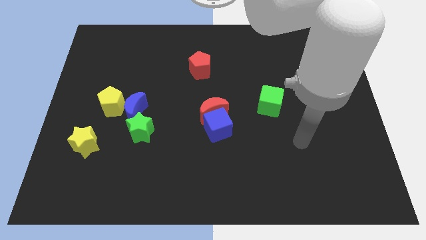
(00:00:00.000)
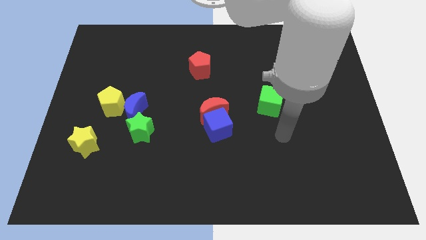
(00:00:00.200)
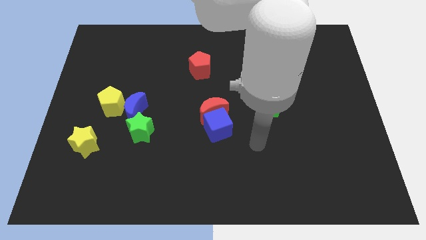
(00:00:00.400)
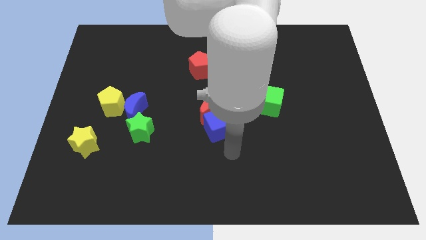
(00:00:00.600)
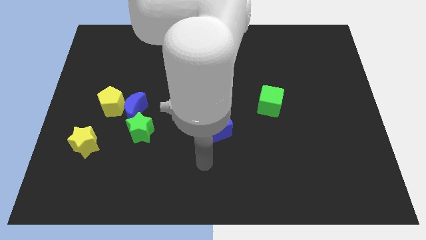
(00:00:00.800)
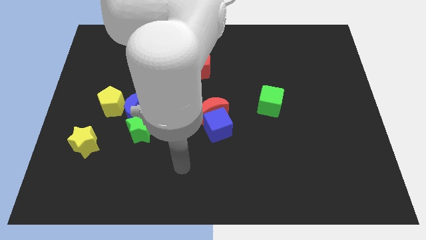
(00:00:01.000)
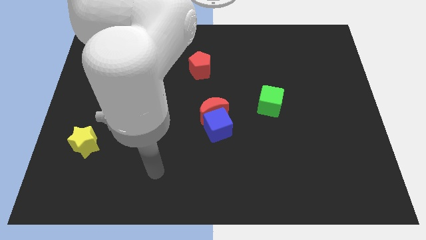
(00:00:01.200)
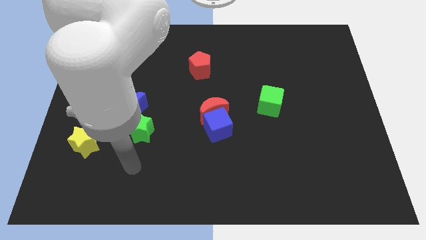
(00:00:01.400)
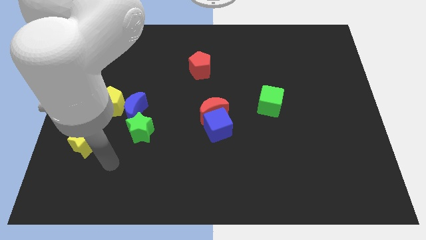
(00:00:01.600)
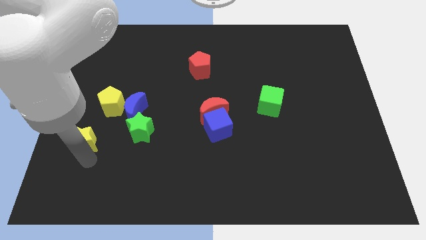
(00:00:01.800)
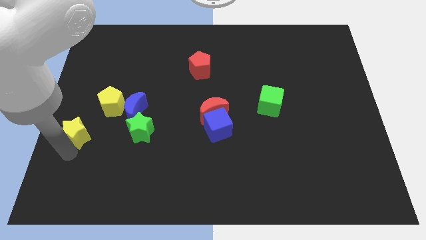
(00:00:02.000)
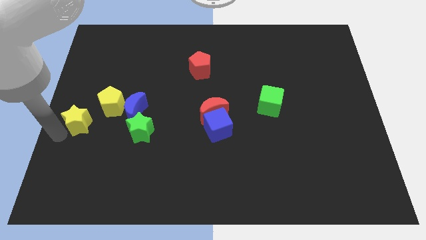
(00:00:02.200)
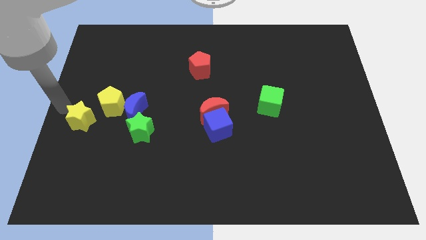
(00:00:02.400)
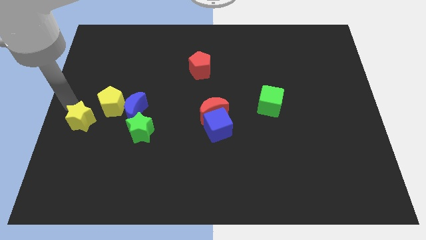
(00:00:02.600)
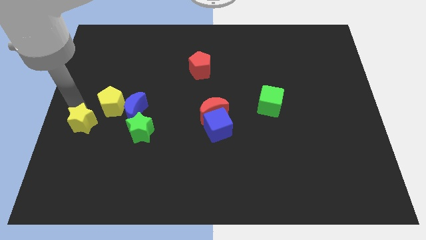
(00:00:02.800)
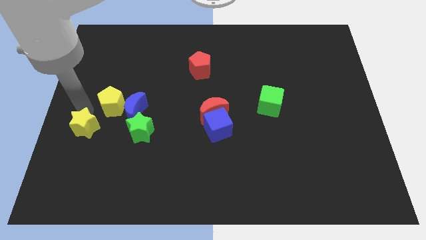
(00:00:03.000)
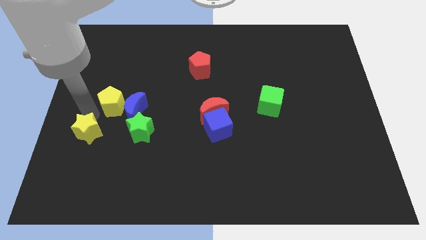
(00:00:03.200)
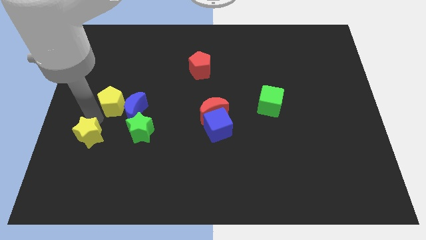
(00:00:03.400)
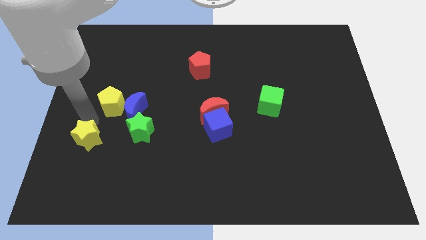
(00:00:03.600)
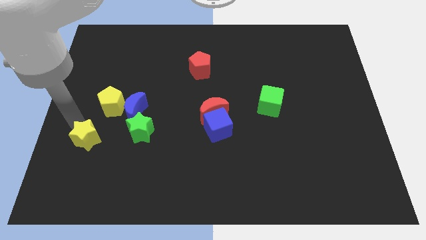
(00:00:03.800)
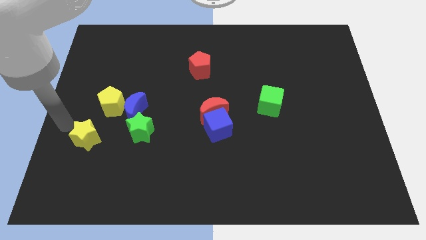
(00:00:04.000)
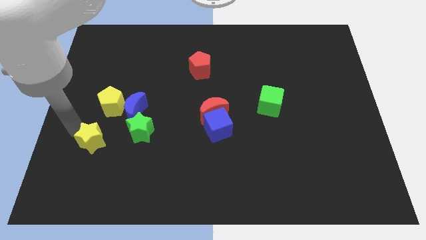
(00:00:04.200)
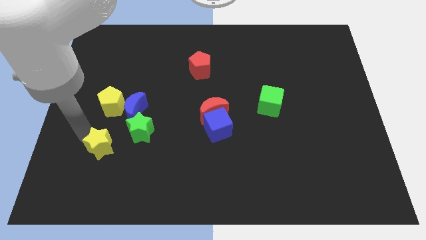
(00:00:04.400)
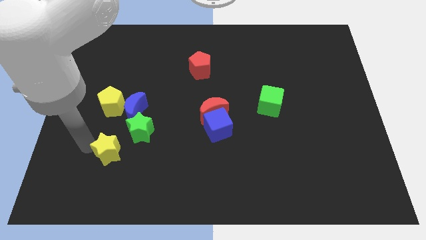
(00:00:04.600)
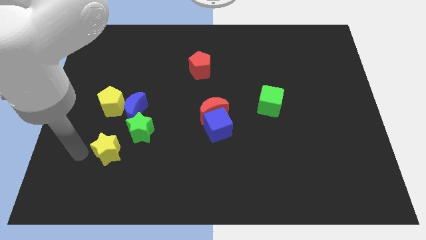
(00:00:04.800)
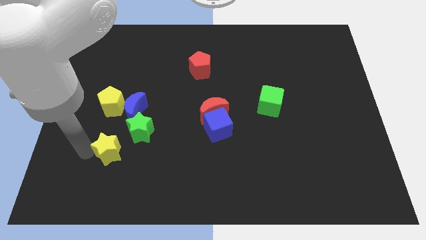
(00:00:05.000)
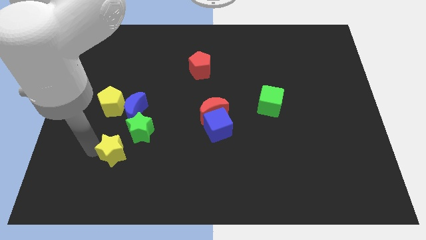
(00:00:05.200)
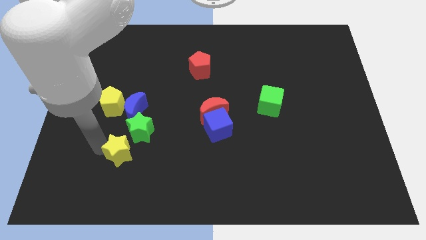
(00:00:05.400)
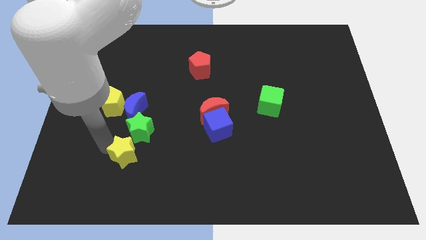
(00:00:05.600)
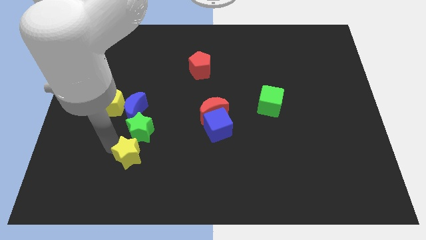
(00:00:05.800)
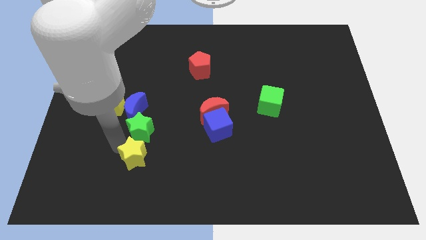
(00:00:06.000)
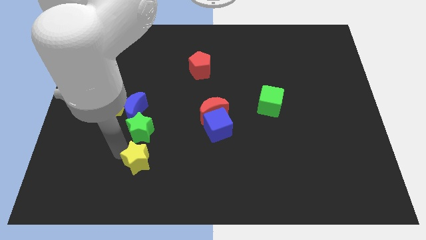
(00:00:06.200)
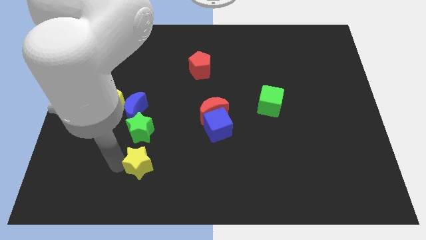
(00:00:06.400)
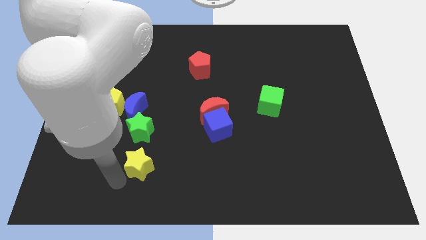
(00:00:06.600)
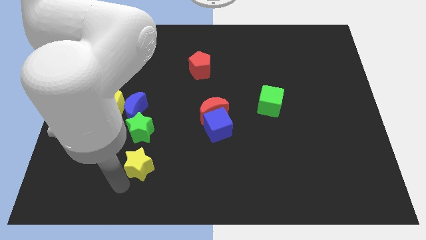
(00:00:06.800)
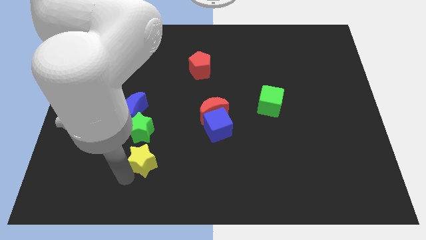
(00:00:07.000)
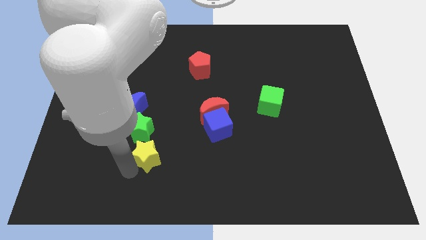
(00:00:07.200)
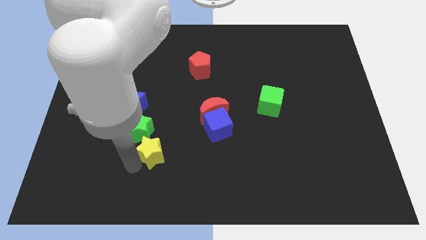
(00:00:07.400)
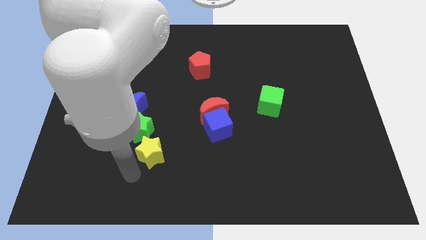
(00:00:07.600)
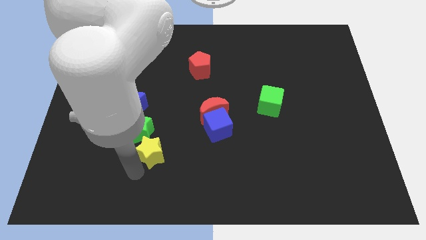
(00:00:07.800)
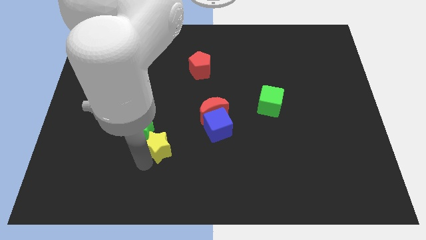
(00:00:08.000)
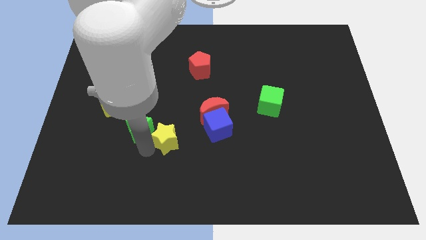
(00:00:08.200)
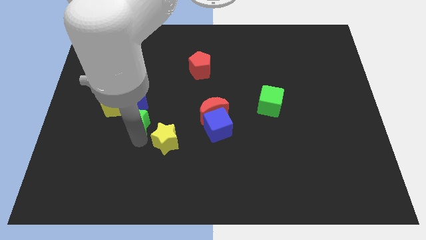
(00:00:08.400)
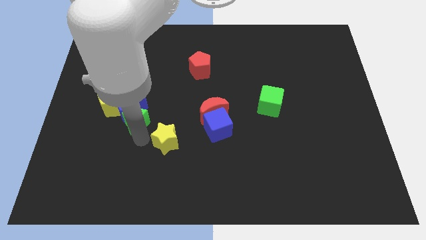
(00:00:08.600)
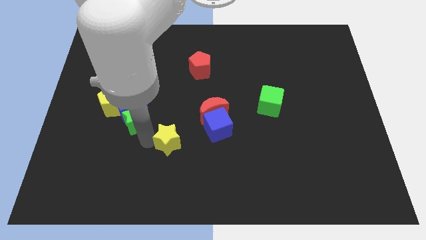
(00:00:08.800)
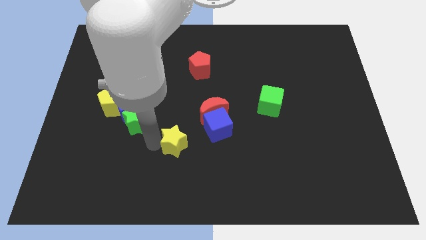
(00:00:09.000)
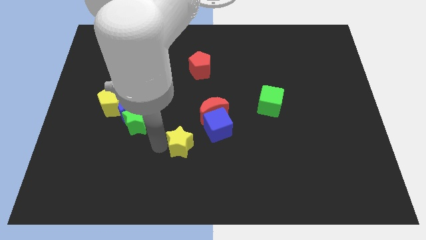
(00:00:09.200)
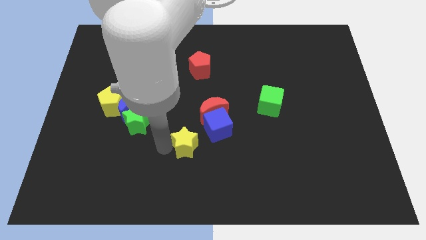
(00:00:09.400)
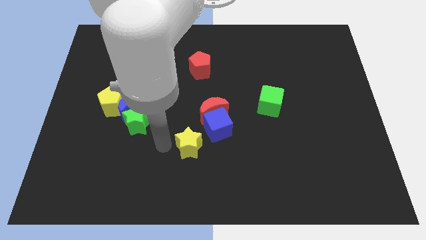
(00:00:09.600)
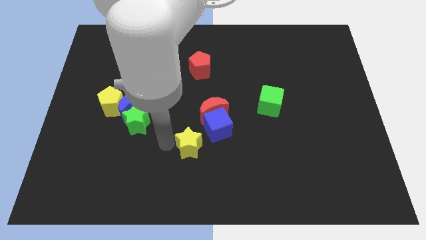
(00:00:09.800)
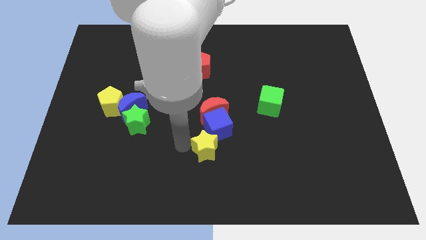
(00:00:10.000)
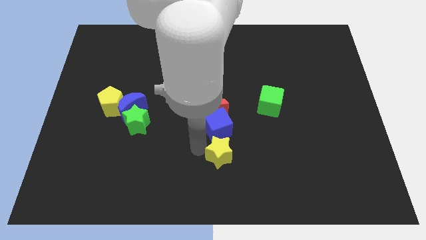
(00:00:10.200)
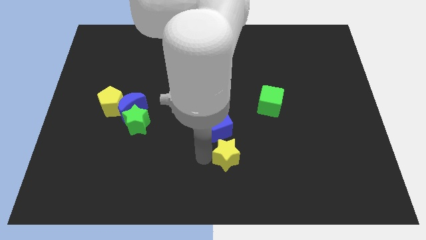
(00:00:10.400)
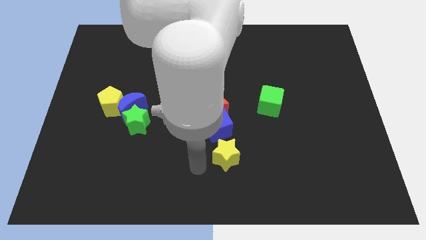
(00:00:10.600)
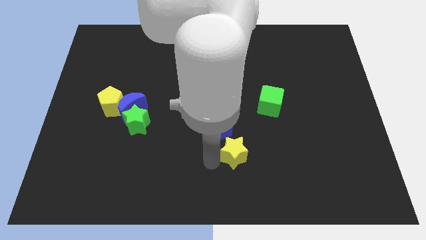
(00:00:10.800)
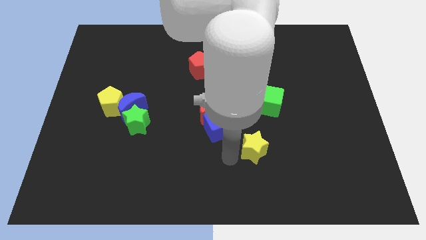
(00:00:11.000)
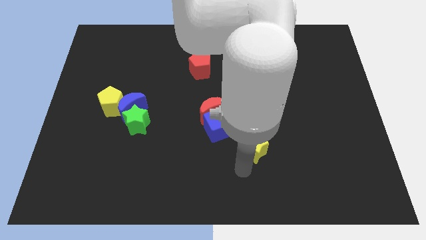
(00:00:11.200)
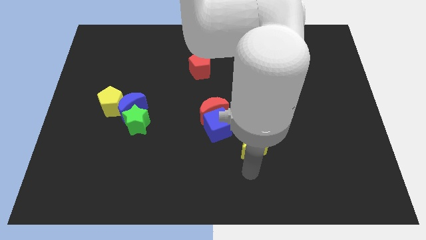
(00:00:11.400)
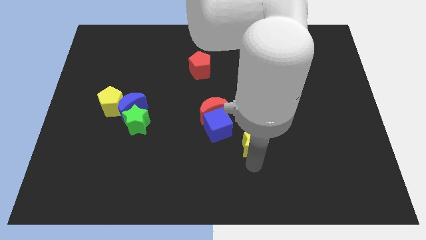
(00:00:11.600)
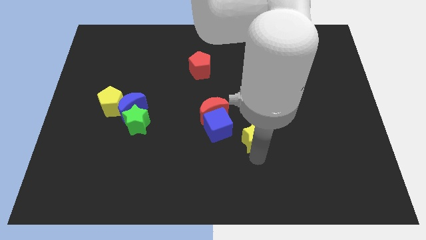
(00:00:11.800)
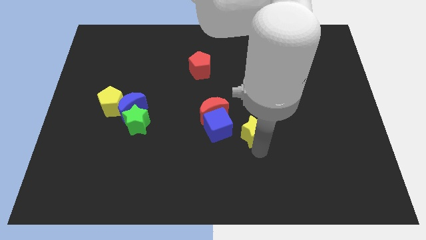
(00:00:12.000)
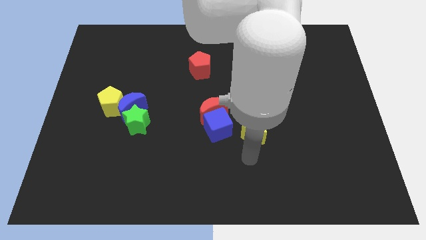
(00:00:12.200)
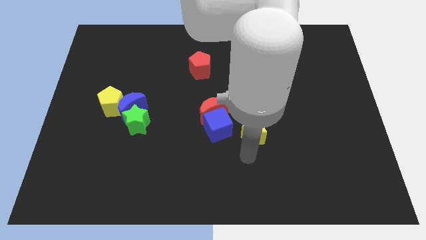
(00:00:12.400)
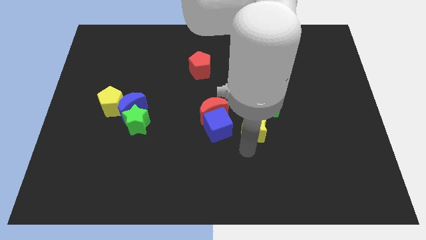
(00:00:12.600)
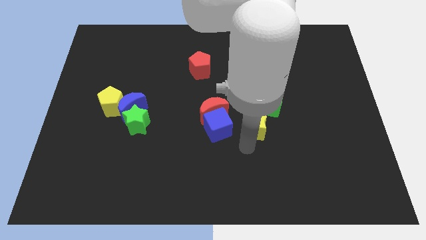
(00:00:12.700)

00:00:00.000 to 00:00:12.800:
slide the yellow star just right of the red moon

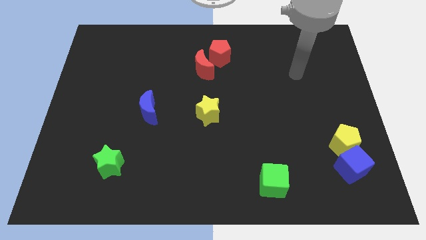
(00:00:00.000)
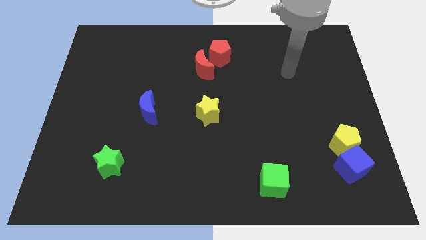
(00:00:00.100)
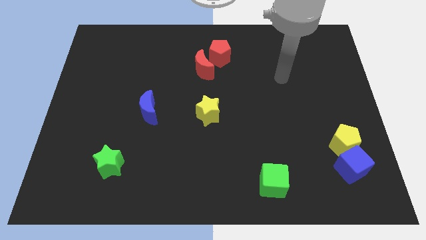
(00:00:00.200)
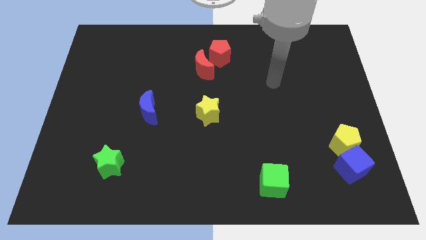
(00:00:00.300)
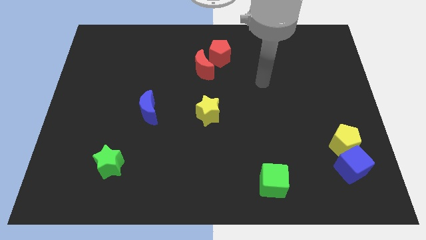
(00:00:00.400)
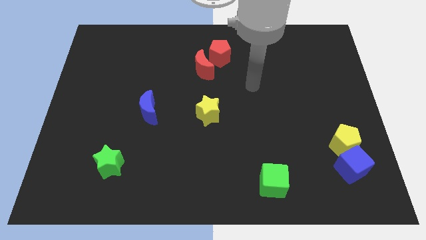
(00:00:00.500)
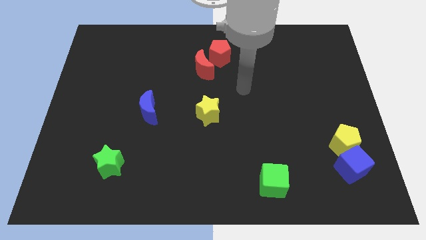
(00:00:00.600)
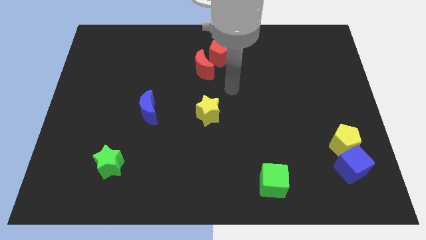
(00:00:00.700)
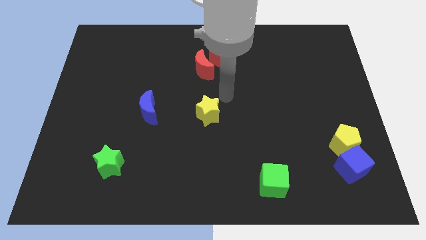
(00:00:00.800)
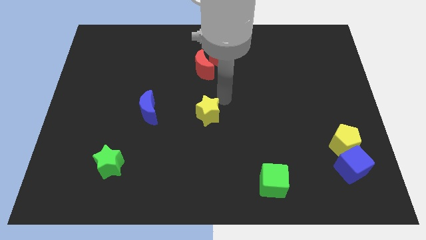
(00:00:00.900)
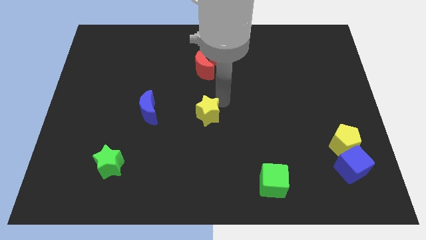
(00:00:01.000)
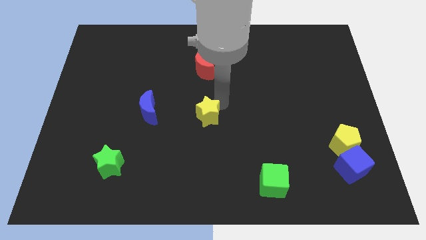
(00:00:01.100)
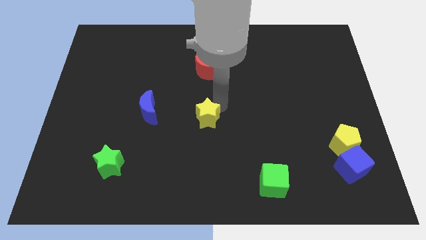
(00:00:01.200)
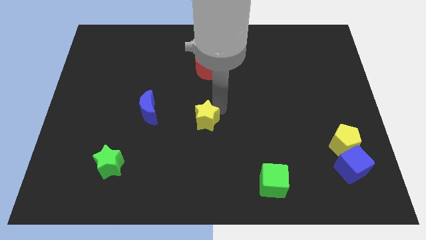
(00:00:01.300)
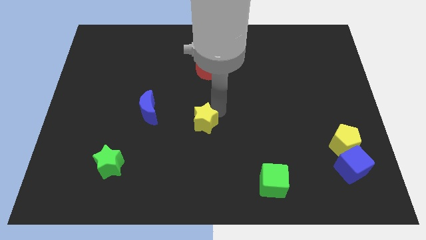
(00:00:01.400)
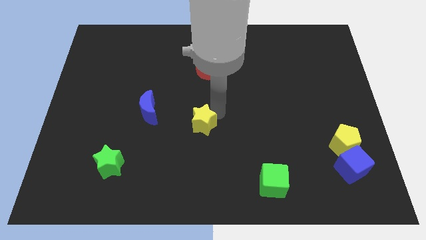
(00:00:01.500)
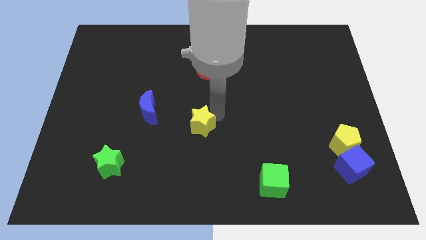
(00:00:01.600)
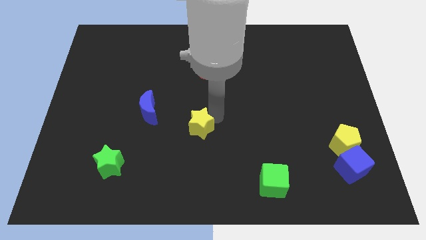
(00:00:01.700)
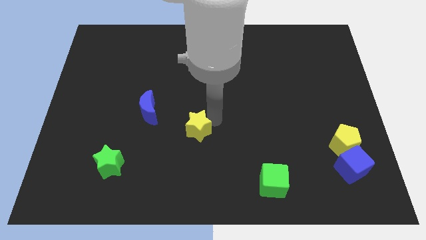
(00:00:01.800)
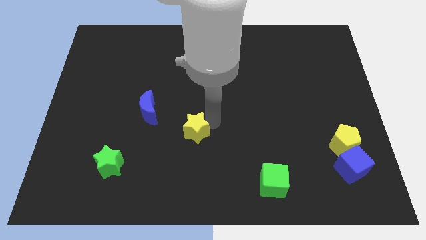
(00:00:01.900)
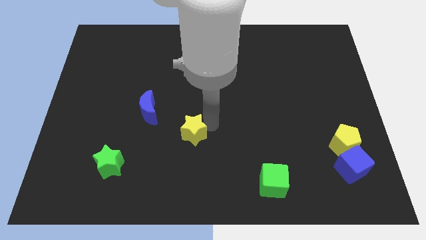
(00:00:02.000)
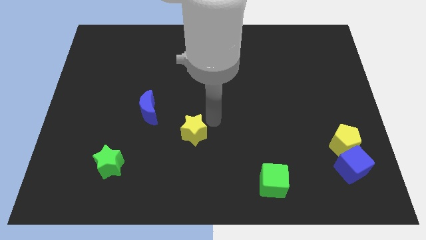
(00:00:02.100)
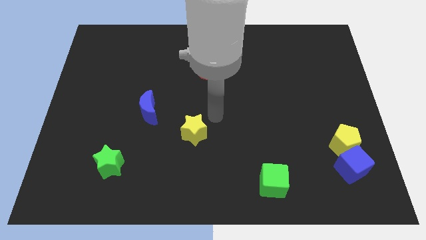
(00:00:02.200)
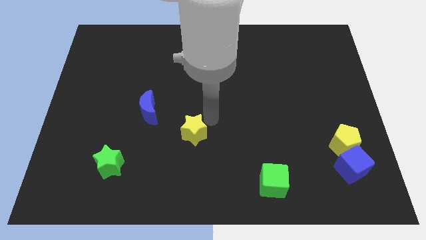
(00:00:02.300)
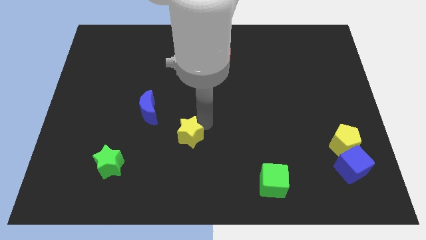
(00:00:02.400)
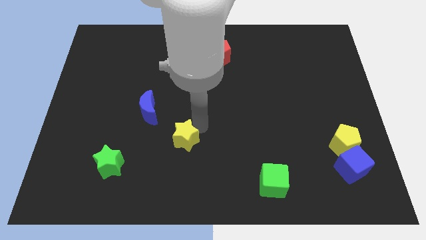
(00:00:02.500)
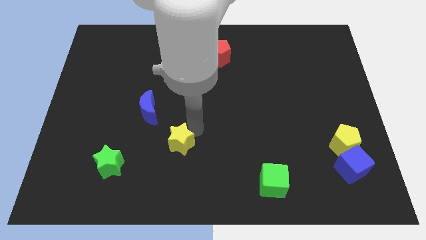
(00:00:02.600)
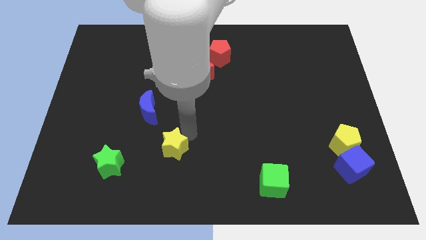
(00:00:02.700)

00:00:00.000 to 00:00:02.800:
slide the yellow star just right of the green star
